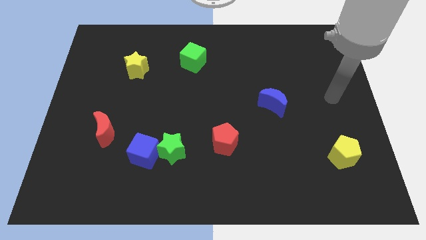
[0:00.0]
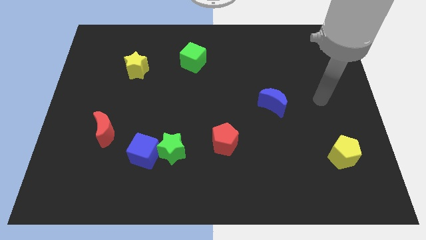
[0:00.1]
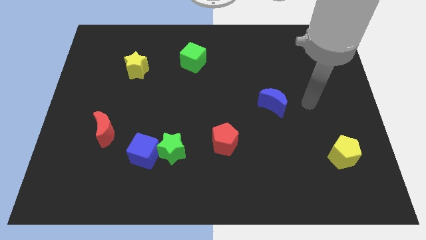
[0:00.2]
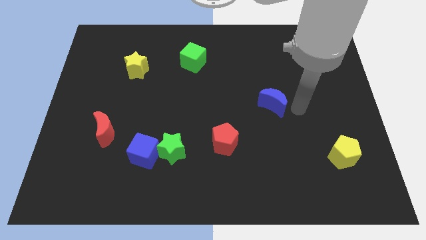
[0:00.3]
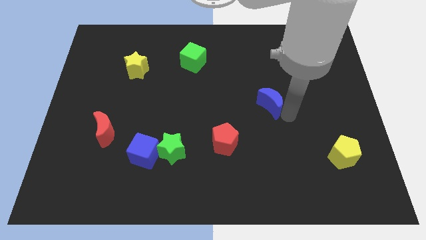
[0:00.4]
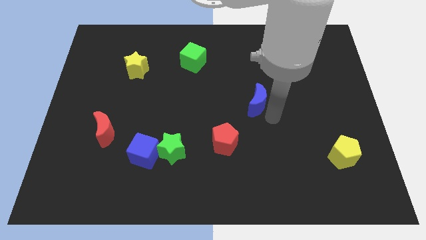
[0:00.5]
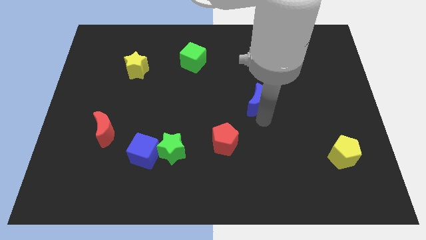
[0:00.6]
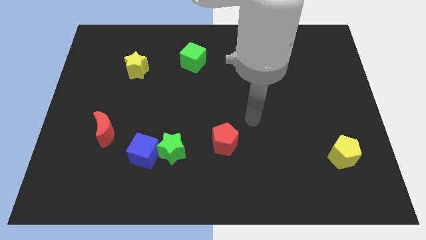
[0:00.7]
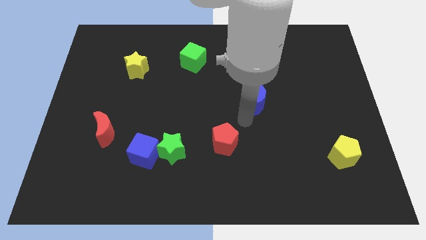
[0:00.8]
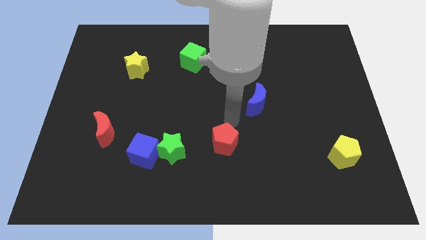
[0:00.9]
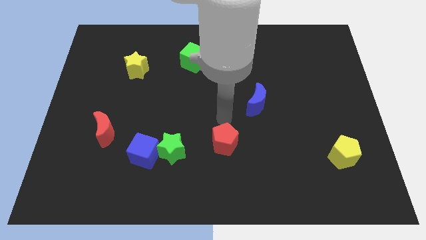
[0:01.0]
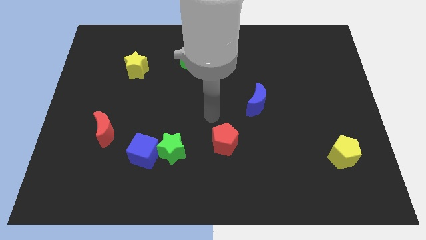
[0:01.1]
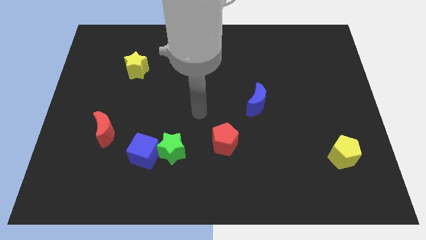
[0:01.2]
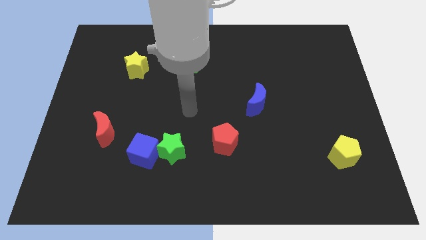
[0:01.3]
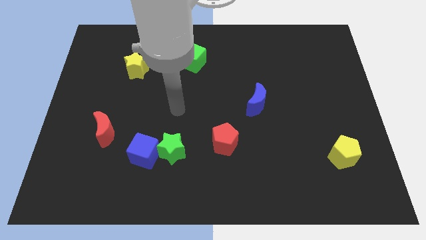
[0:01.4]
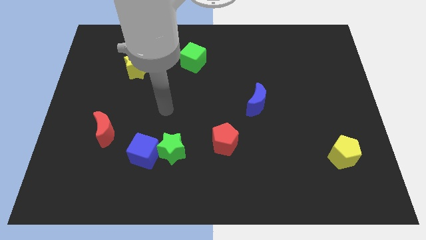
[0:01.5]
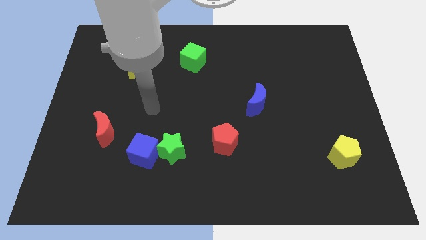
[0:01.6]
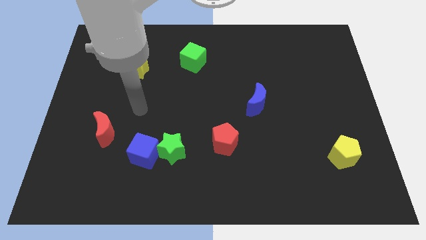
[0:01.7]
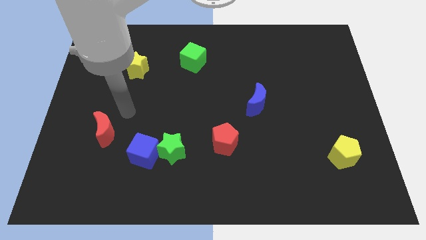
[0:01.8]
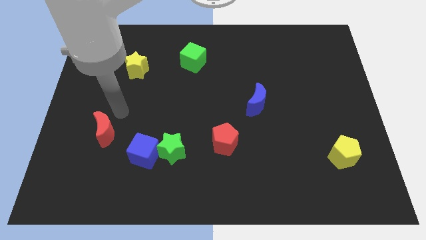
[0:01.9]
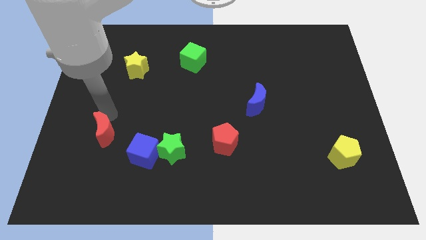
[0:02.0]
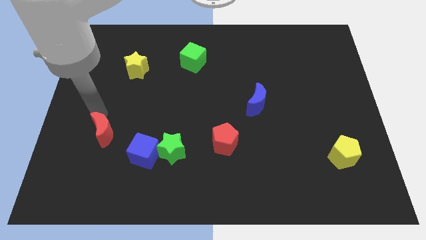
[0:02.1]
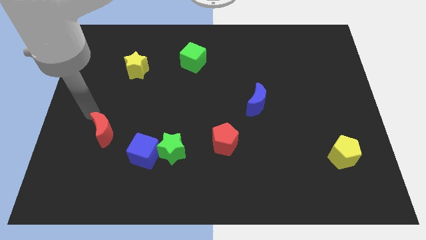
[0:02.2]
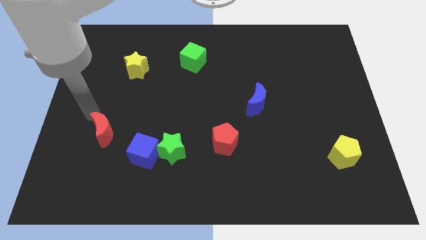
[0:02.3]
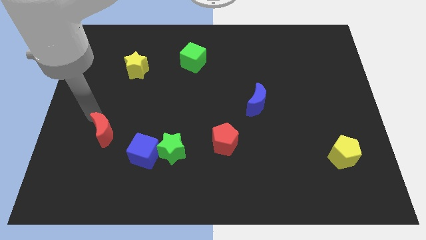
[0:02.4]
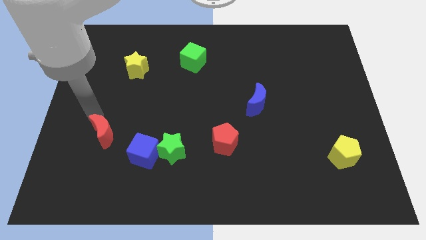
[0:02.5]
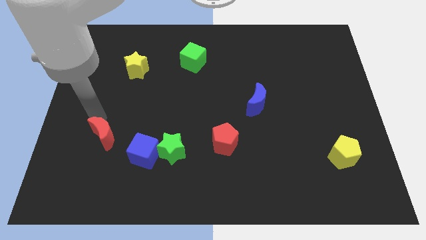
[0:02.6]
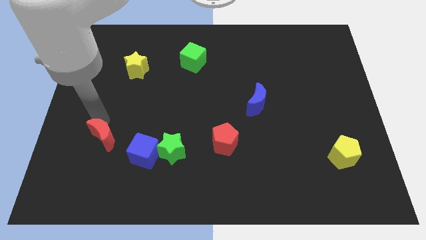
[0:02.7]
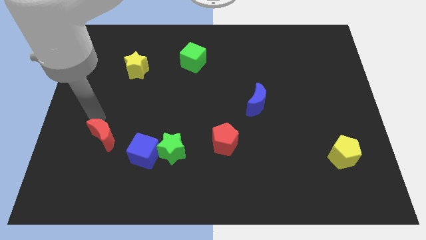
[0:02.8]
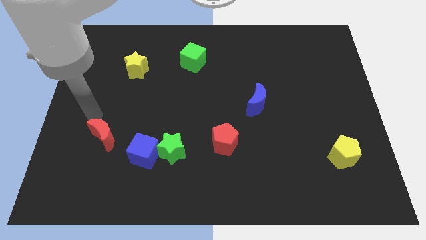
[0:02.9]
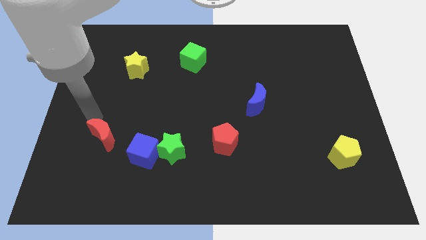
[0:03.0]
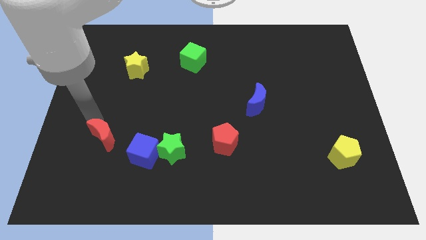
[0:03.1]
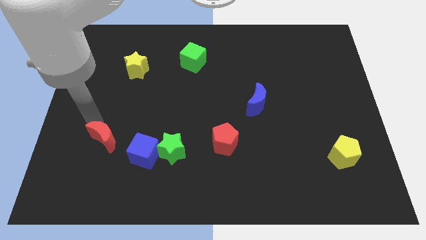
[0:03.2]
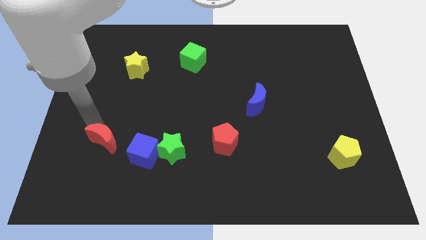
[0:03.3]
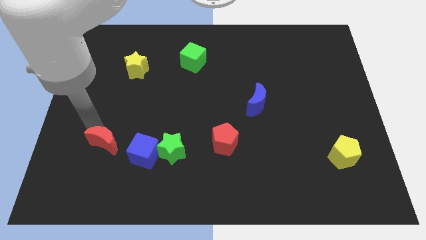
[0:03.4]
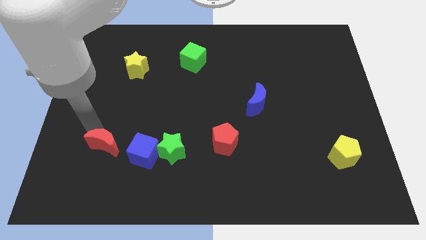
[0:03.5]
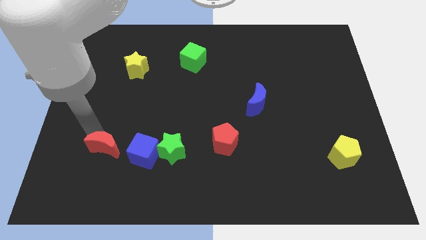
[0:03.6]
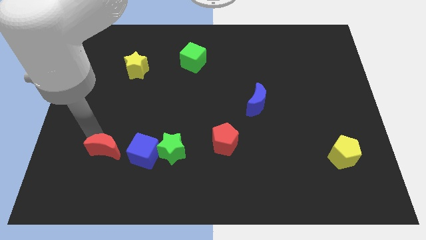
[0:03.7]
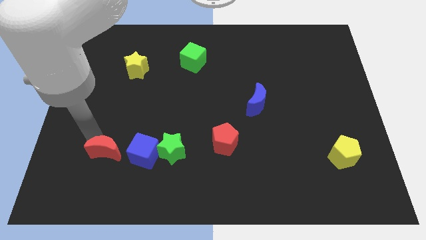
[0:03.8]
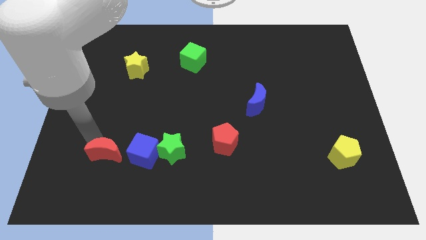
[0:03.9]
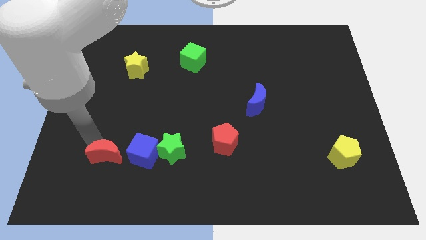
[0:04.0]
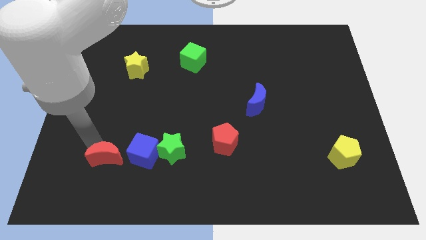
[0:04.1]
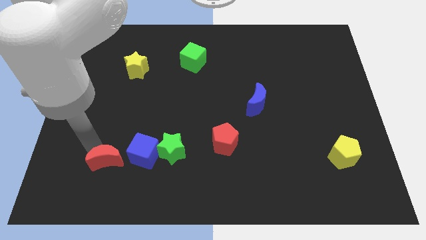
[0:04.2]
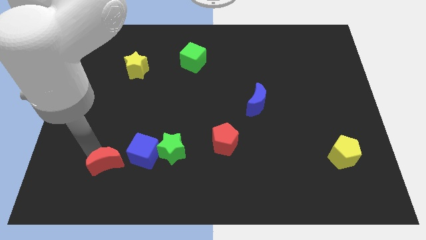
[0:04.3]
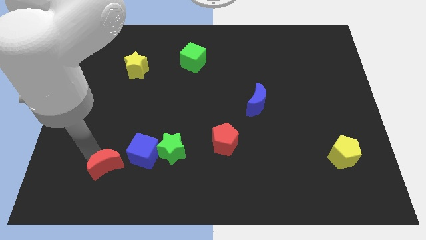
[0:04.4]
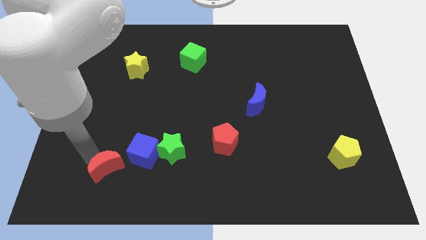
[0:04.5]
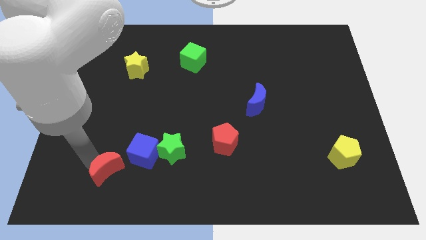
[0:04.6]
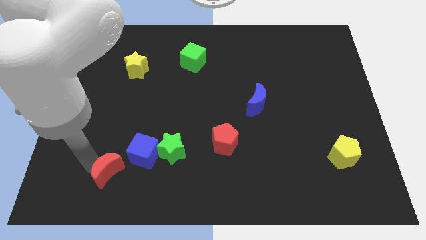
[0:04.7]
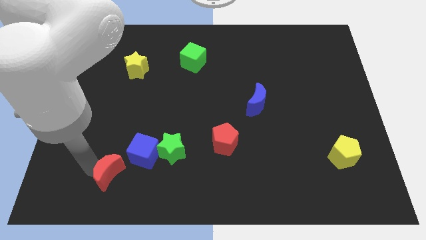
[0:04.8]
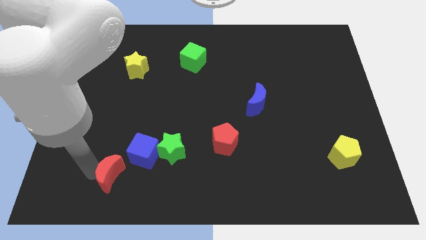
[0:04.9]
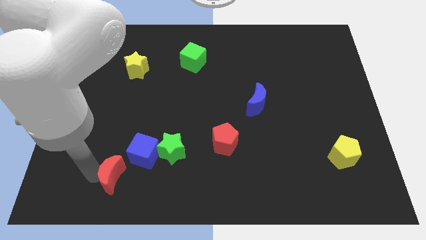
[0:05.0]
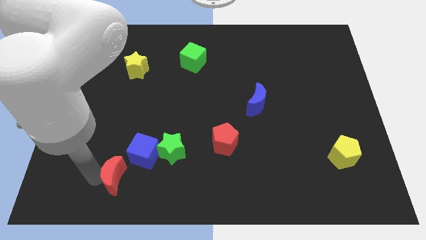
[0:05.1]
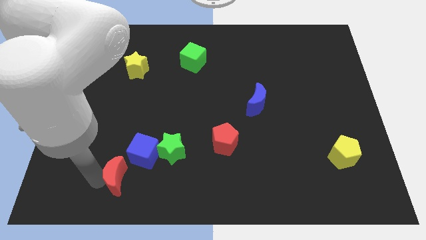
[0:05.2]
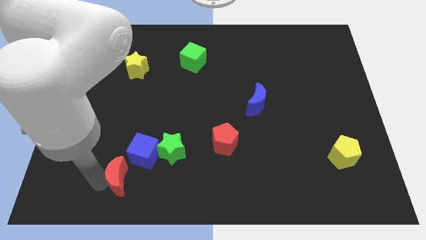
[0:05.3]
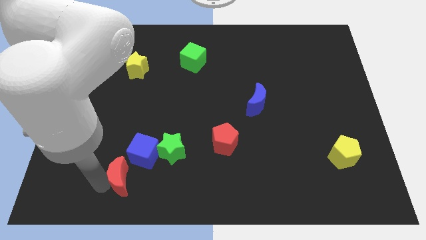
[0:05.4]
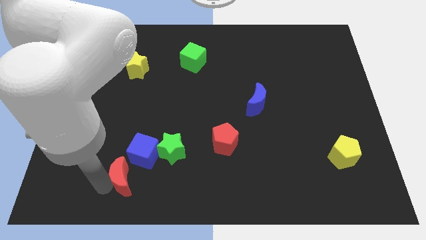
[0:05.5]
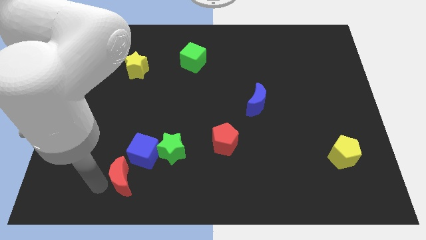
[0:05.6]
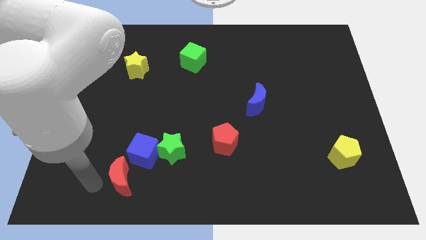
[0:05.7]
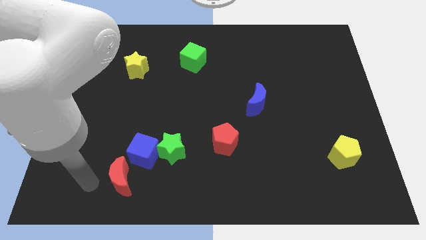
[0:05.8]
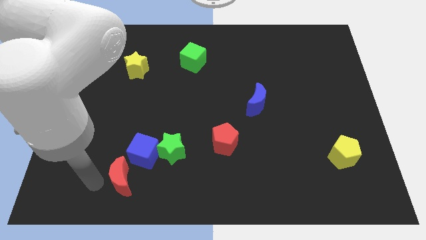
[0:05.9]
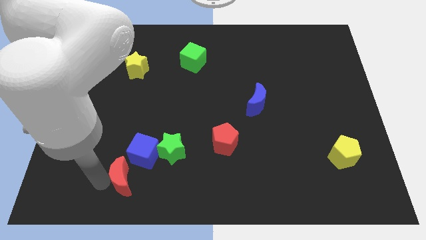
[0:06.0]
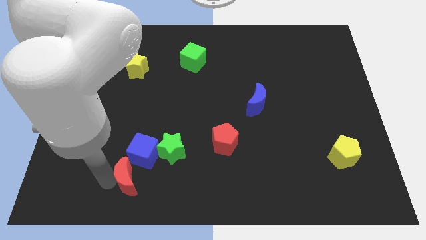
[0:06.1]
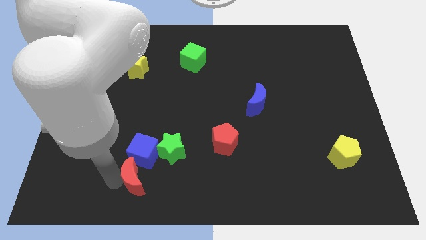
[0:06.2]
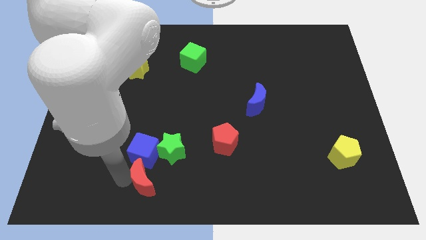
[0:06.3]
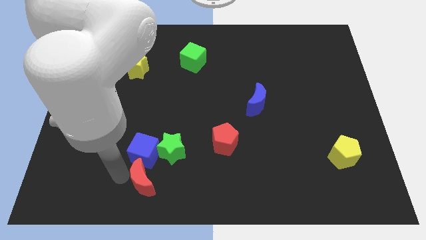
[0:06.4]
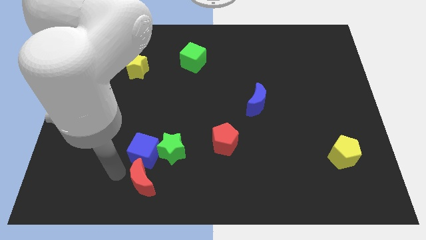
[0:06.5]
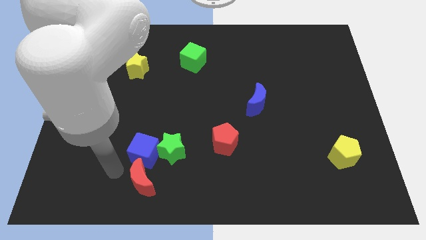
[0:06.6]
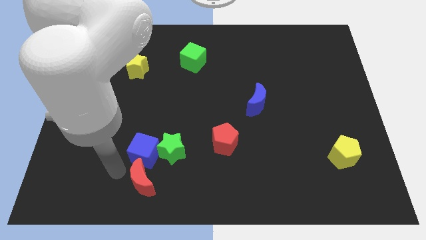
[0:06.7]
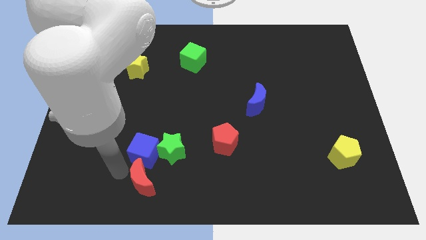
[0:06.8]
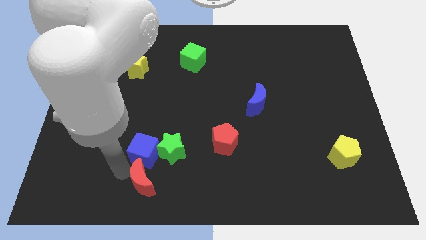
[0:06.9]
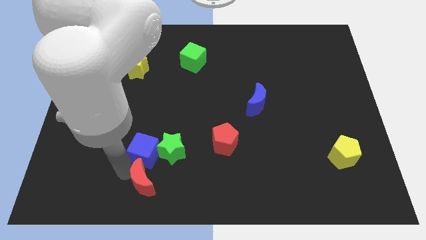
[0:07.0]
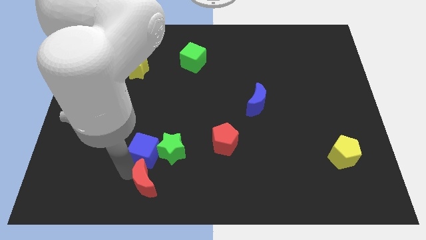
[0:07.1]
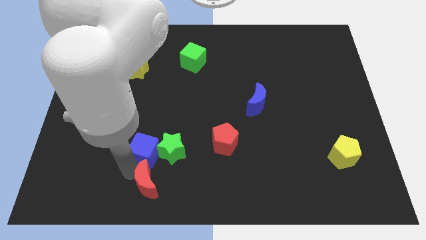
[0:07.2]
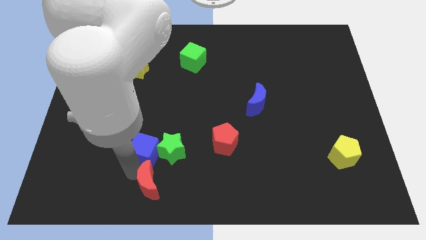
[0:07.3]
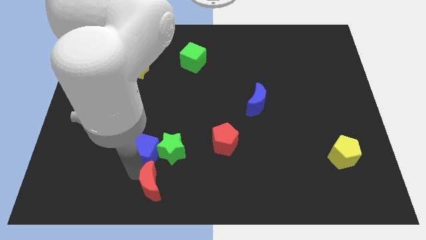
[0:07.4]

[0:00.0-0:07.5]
move the red moon to the bottom side
